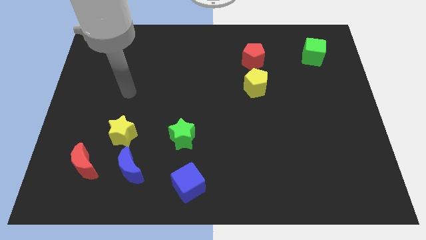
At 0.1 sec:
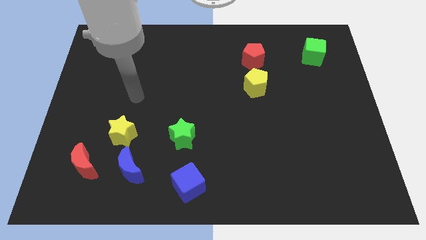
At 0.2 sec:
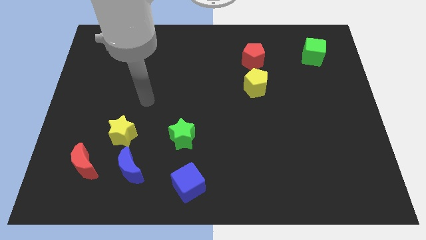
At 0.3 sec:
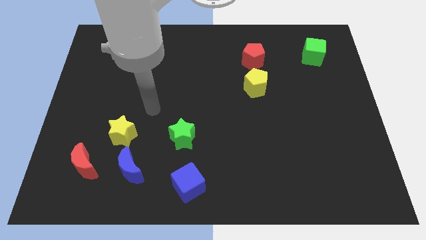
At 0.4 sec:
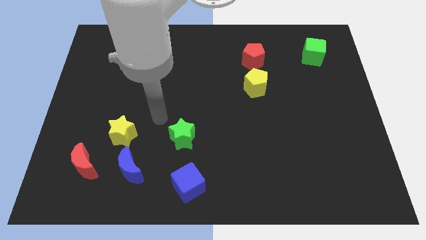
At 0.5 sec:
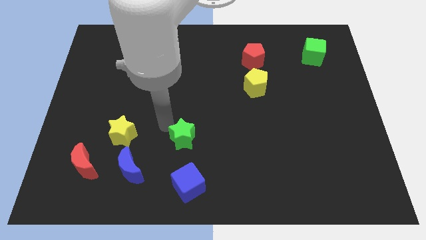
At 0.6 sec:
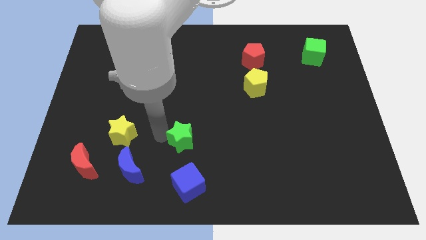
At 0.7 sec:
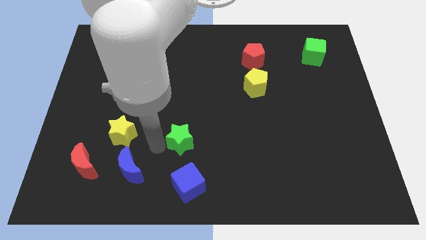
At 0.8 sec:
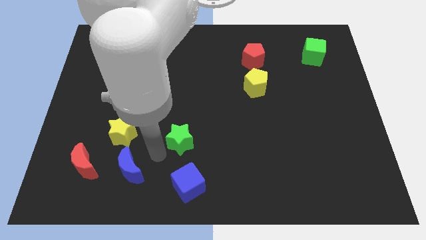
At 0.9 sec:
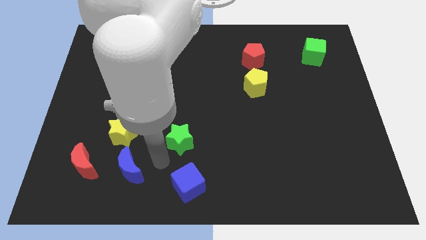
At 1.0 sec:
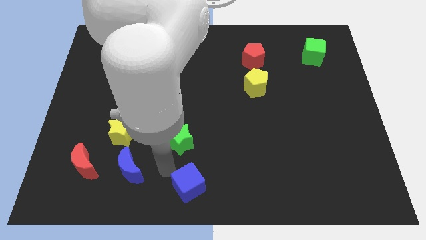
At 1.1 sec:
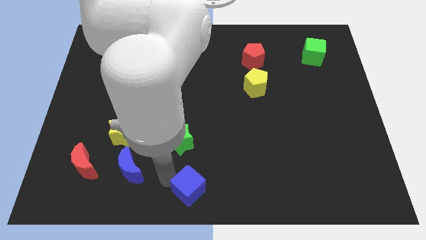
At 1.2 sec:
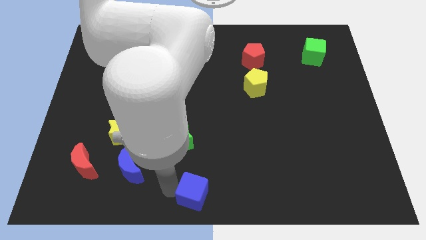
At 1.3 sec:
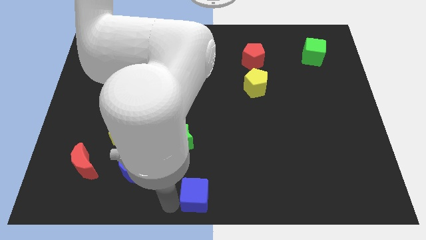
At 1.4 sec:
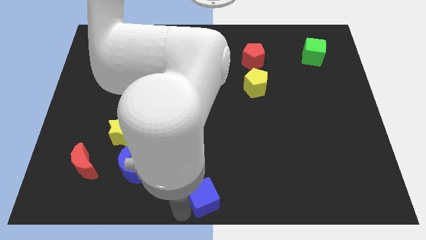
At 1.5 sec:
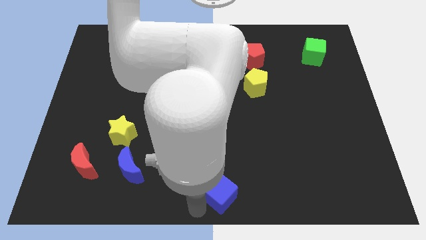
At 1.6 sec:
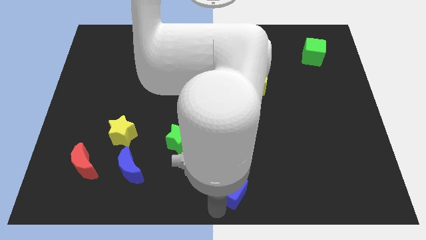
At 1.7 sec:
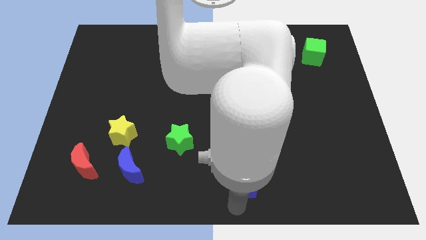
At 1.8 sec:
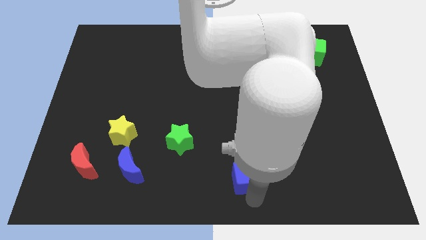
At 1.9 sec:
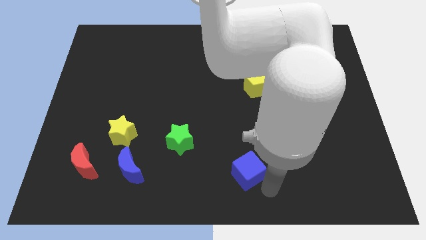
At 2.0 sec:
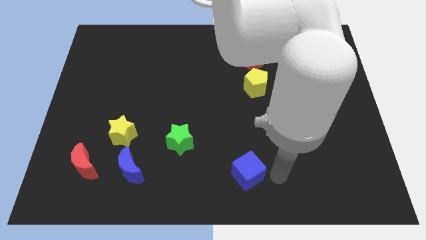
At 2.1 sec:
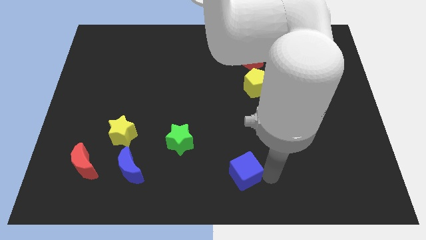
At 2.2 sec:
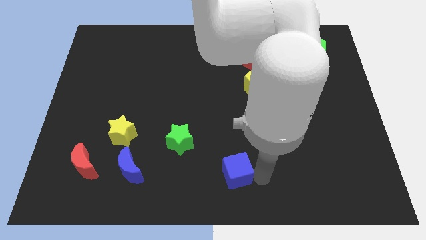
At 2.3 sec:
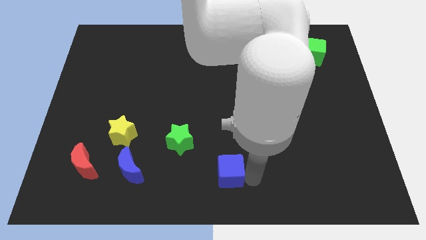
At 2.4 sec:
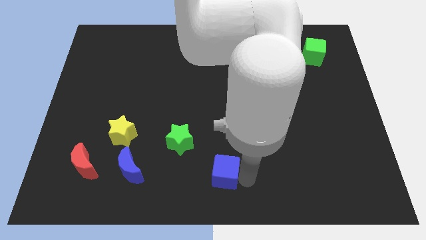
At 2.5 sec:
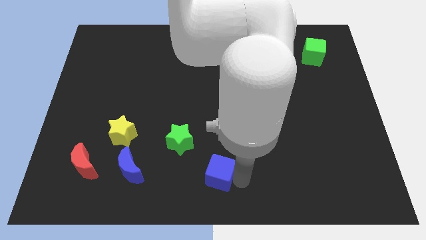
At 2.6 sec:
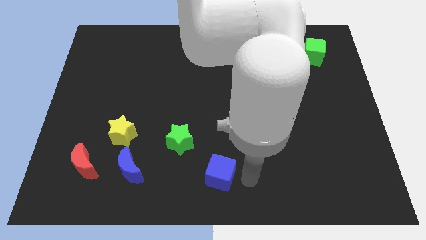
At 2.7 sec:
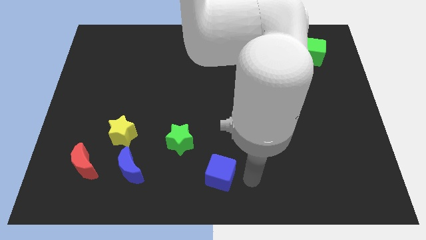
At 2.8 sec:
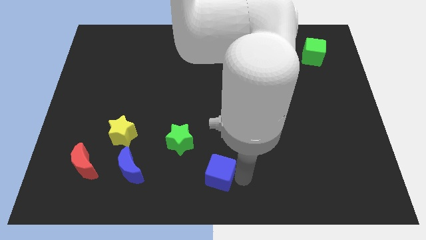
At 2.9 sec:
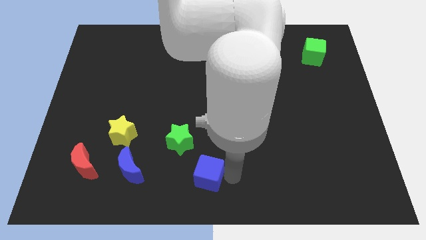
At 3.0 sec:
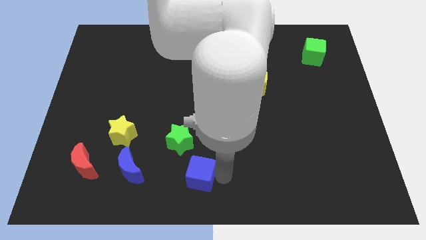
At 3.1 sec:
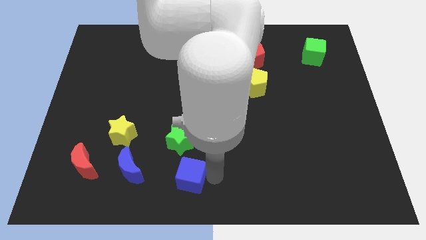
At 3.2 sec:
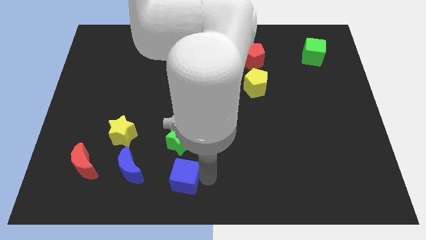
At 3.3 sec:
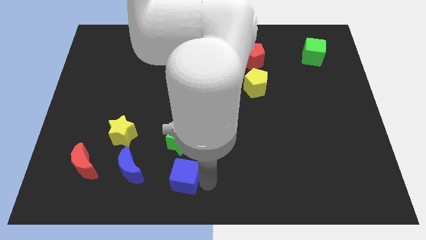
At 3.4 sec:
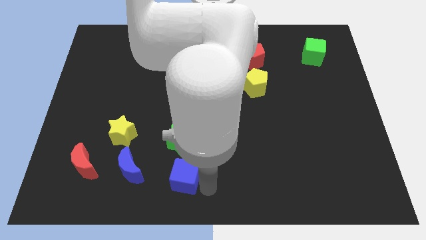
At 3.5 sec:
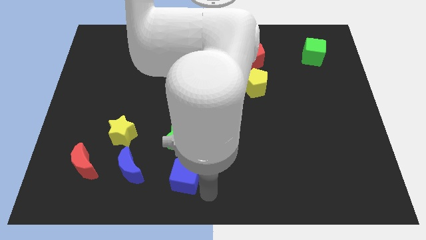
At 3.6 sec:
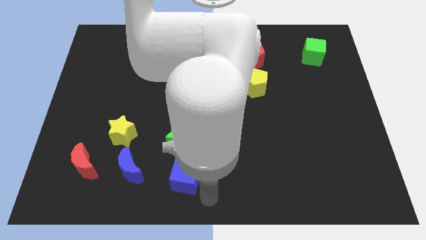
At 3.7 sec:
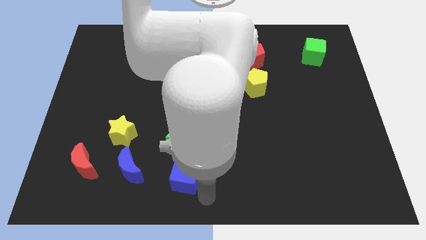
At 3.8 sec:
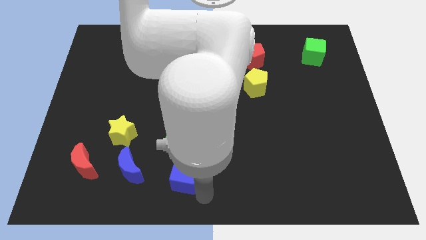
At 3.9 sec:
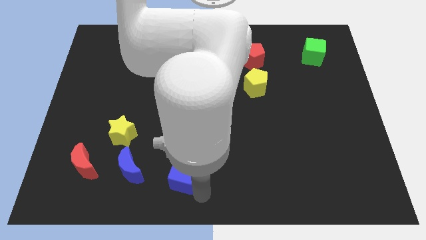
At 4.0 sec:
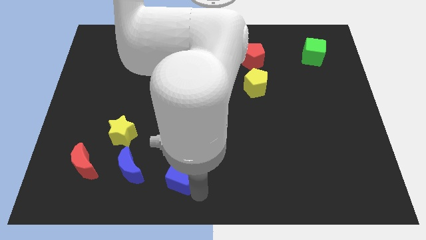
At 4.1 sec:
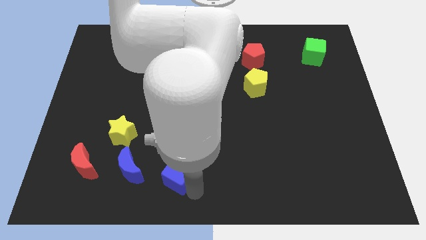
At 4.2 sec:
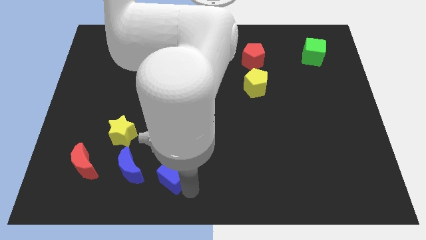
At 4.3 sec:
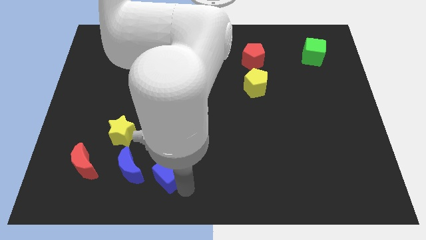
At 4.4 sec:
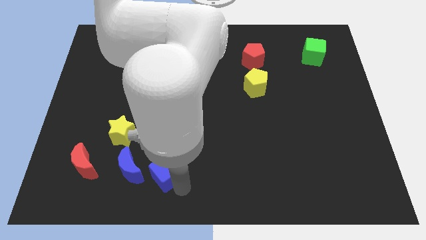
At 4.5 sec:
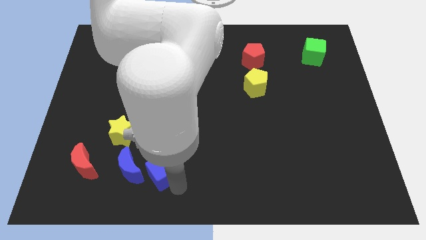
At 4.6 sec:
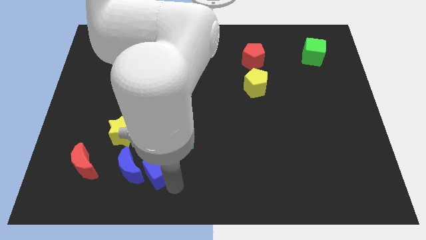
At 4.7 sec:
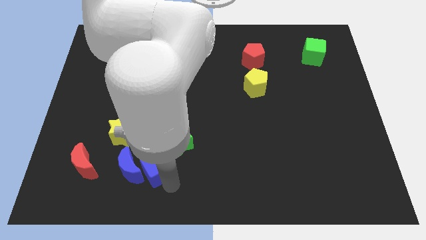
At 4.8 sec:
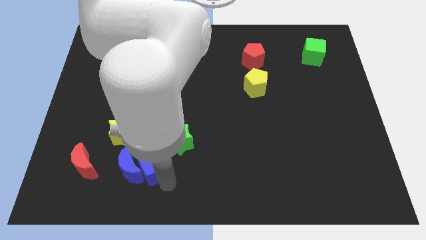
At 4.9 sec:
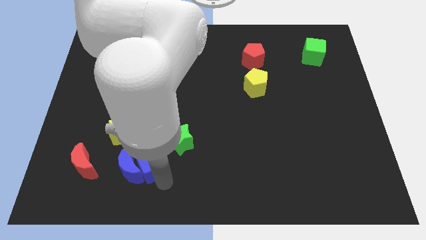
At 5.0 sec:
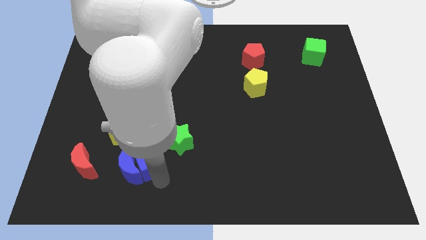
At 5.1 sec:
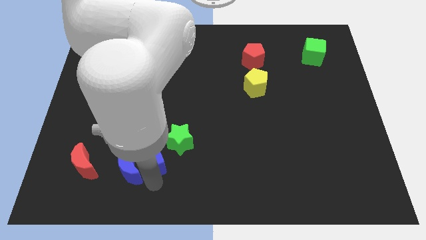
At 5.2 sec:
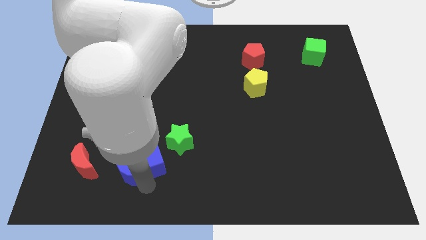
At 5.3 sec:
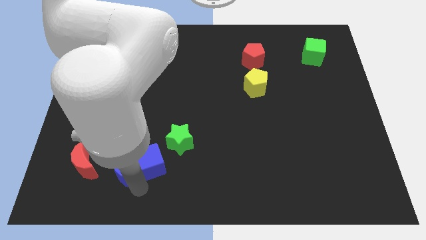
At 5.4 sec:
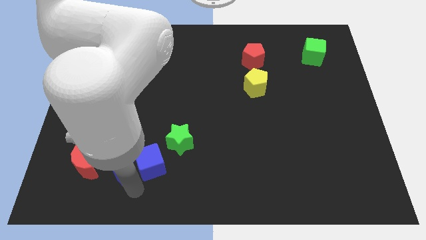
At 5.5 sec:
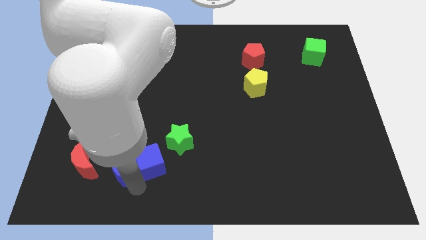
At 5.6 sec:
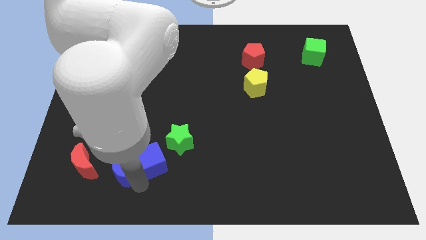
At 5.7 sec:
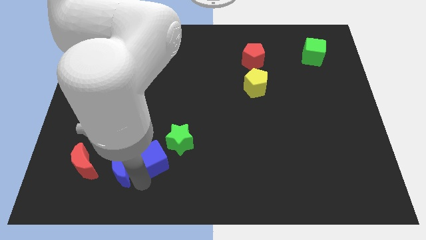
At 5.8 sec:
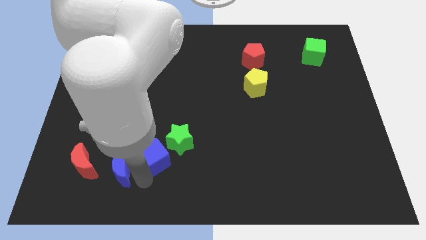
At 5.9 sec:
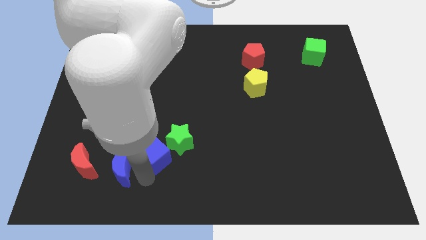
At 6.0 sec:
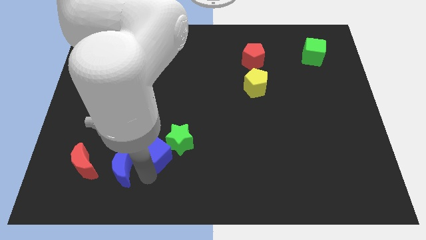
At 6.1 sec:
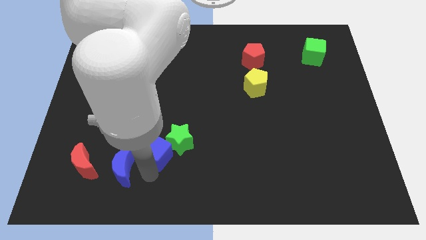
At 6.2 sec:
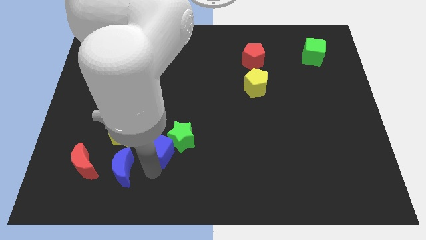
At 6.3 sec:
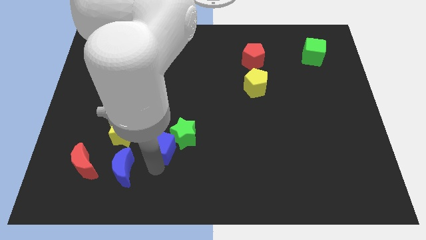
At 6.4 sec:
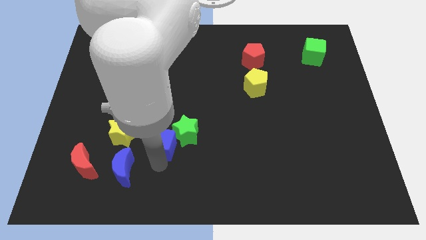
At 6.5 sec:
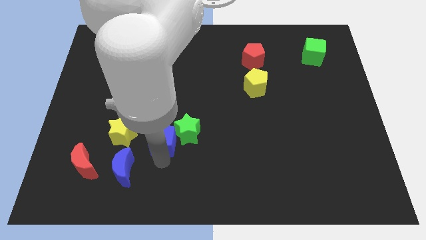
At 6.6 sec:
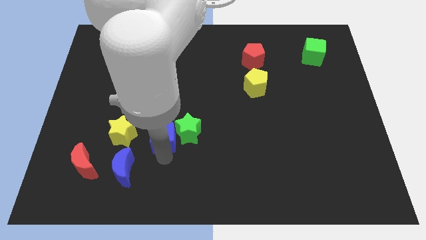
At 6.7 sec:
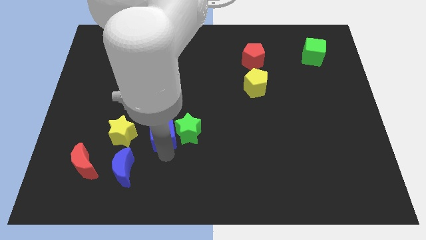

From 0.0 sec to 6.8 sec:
move the blue cube to the top left side of the green star

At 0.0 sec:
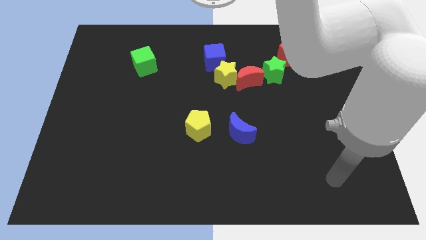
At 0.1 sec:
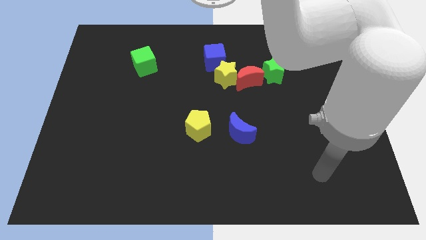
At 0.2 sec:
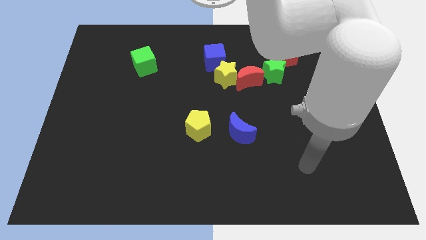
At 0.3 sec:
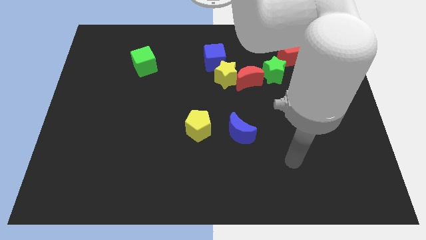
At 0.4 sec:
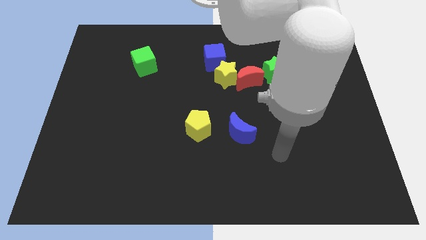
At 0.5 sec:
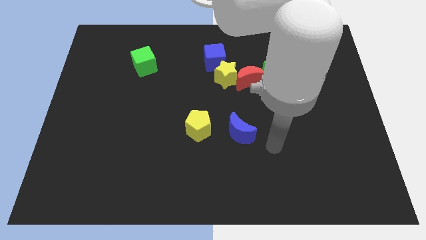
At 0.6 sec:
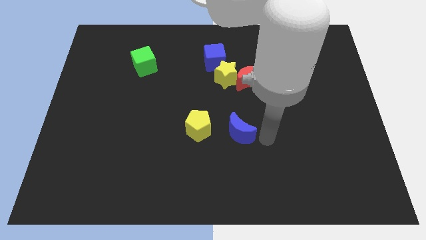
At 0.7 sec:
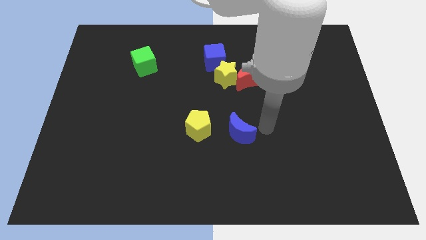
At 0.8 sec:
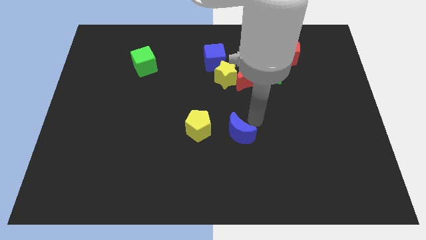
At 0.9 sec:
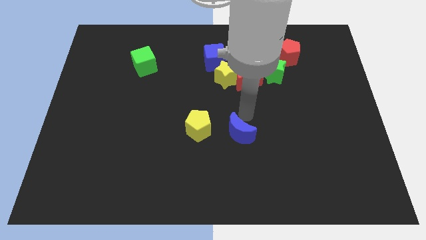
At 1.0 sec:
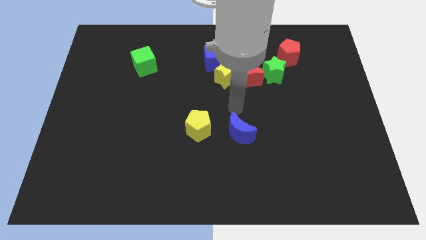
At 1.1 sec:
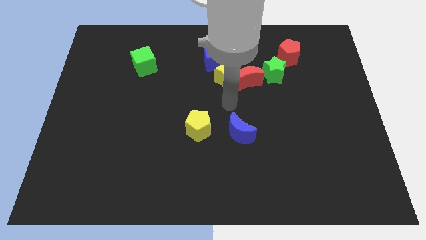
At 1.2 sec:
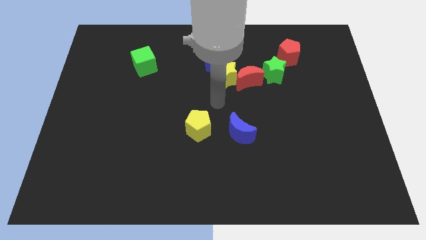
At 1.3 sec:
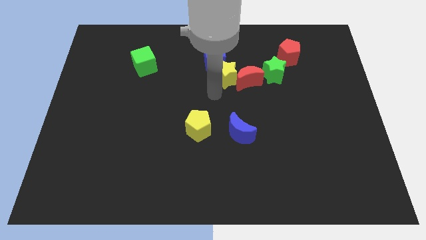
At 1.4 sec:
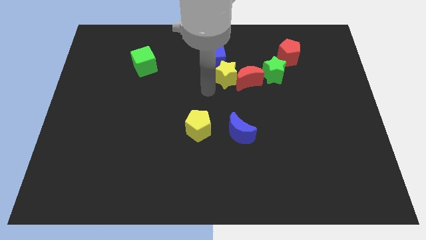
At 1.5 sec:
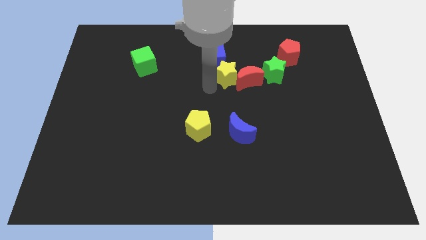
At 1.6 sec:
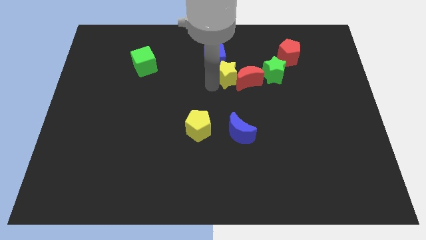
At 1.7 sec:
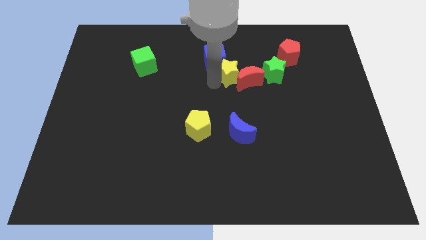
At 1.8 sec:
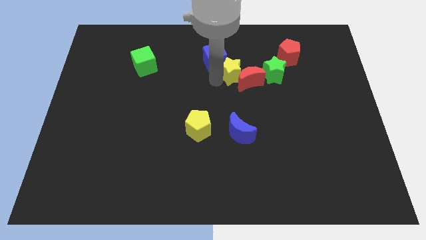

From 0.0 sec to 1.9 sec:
put the yellow star just right of the blue cube
